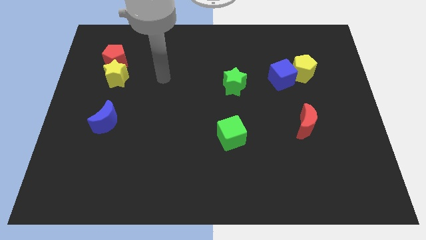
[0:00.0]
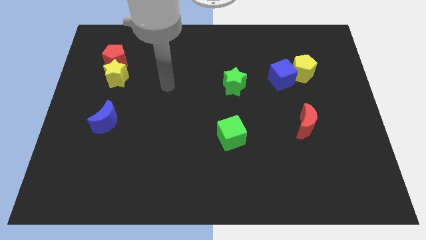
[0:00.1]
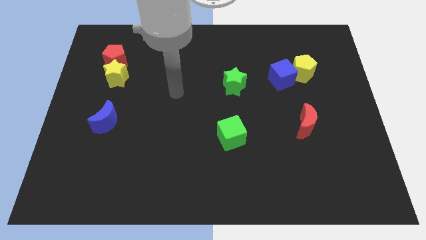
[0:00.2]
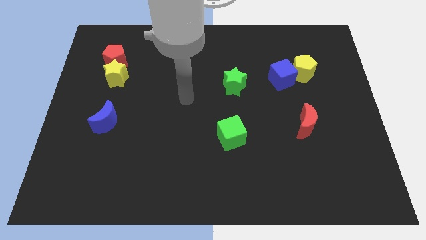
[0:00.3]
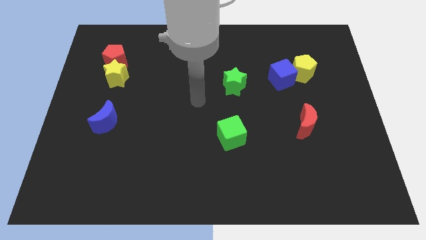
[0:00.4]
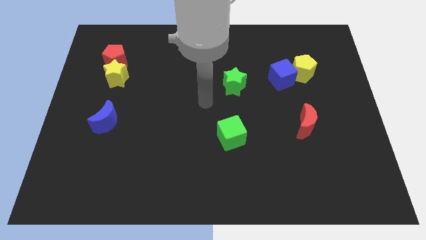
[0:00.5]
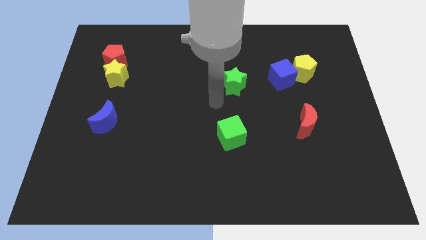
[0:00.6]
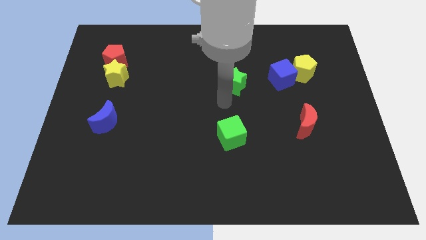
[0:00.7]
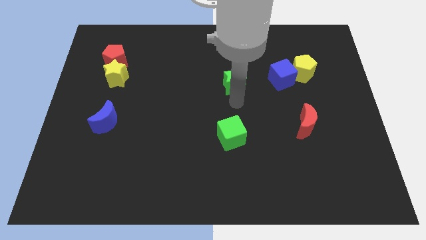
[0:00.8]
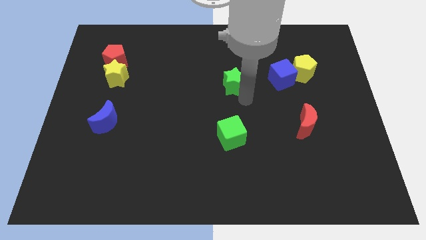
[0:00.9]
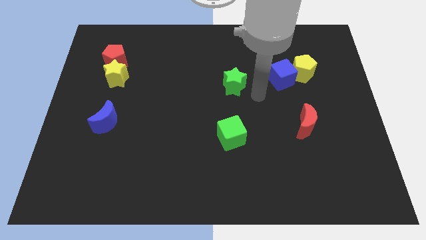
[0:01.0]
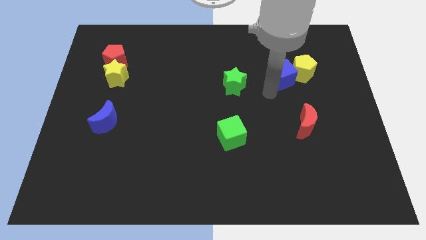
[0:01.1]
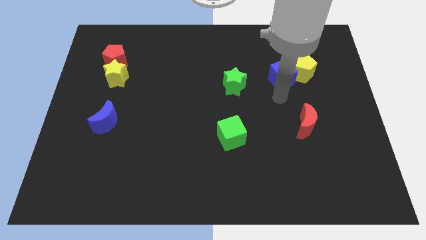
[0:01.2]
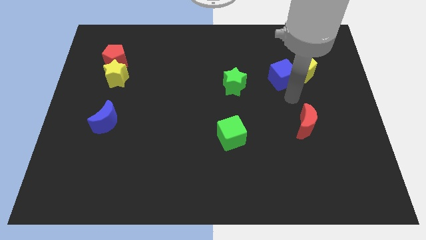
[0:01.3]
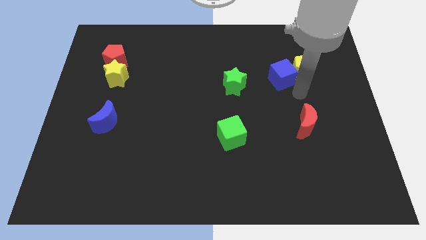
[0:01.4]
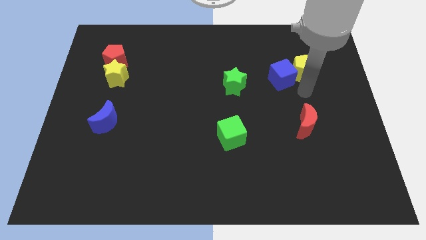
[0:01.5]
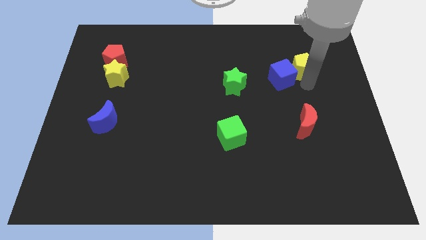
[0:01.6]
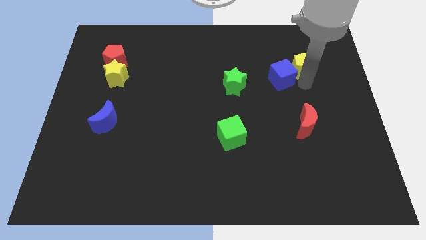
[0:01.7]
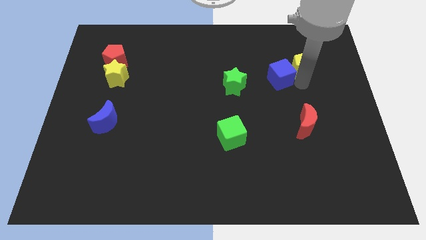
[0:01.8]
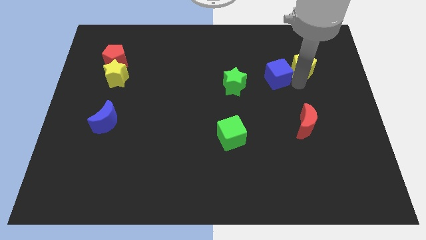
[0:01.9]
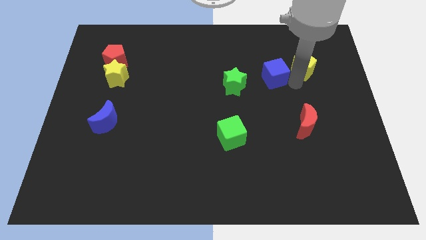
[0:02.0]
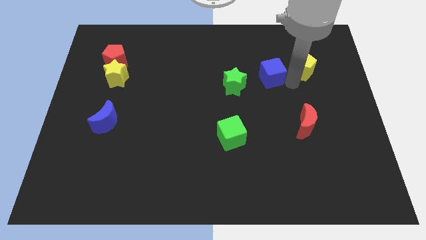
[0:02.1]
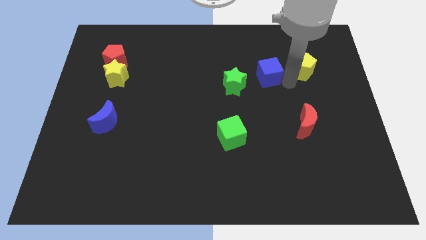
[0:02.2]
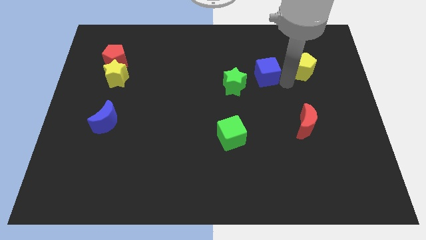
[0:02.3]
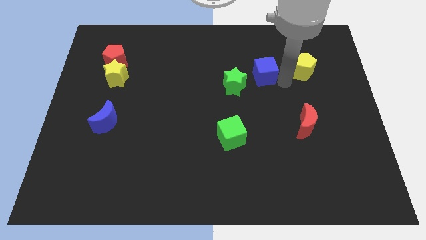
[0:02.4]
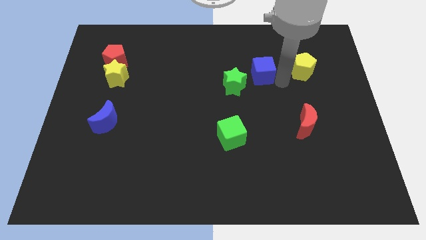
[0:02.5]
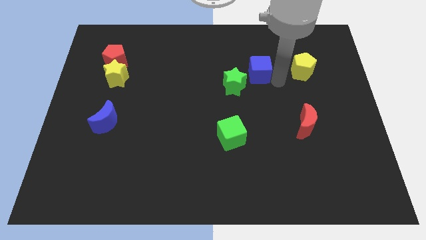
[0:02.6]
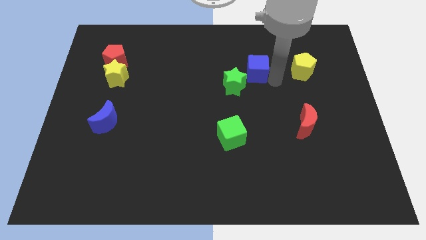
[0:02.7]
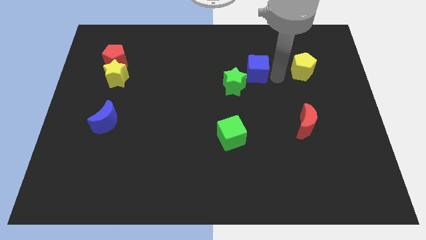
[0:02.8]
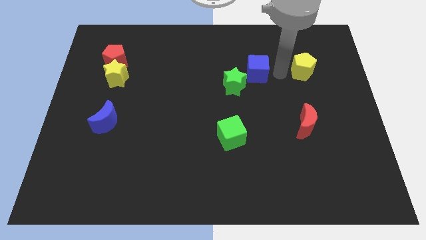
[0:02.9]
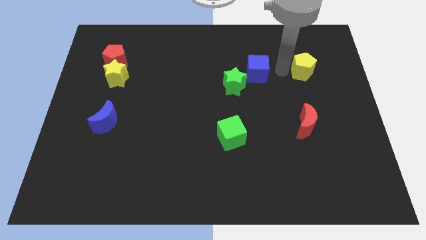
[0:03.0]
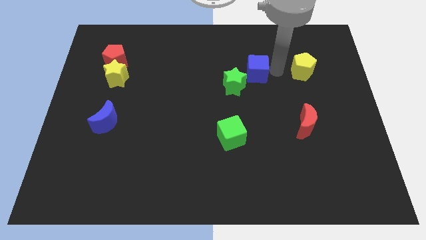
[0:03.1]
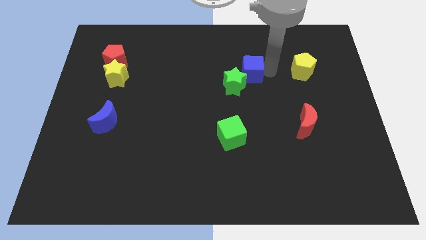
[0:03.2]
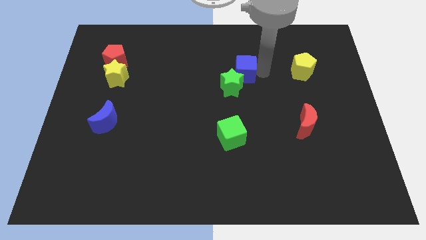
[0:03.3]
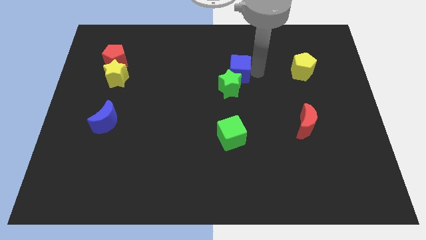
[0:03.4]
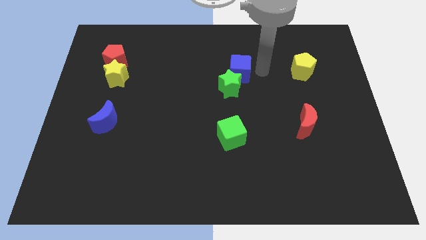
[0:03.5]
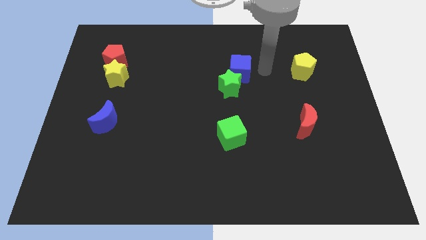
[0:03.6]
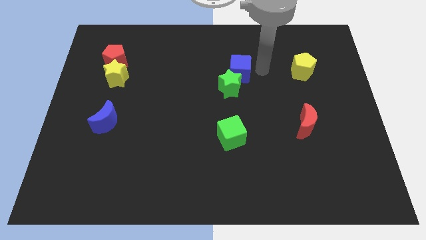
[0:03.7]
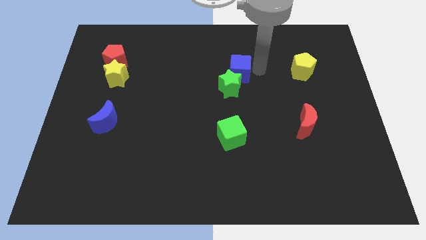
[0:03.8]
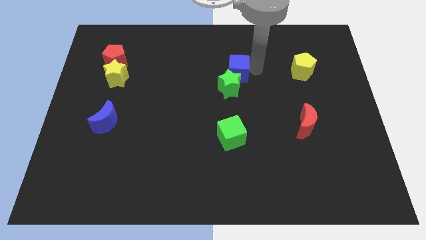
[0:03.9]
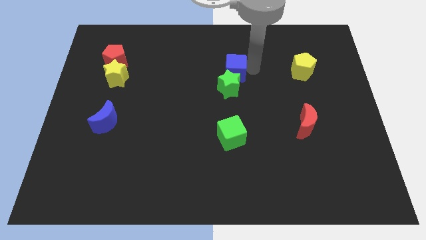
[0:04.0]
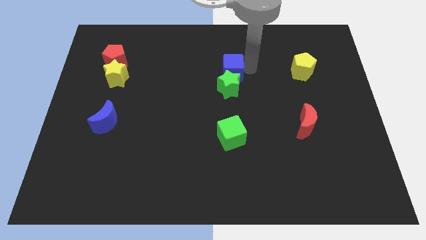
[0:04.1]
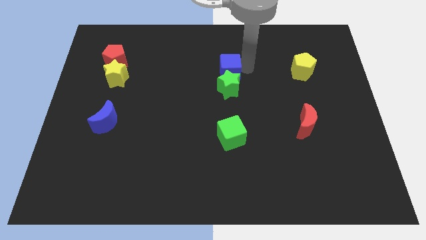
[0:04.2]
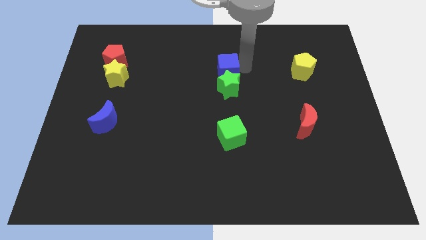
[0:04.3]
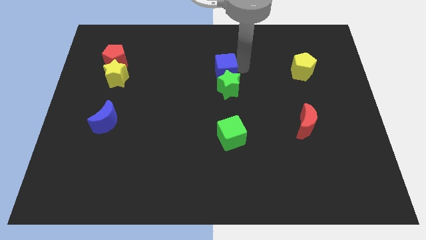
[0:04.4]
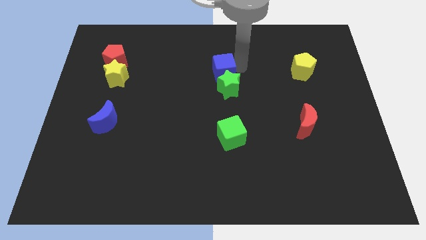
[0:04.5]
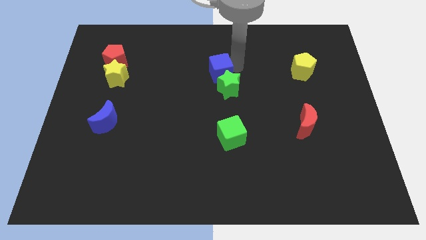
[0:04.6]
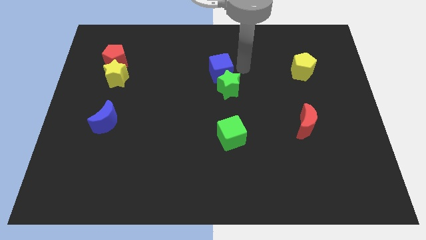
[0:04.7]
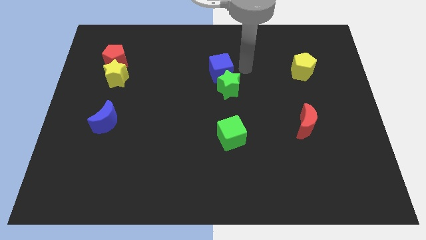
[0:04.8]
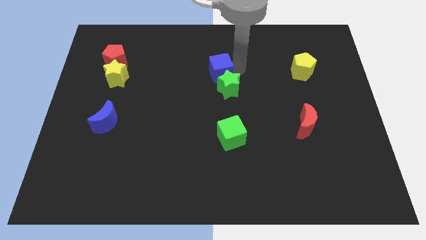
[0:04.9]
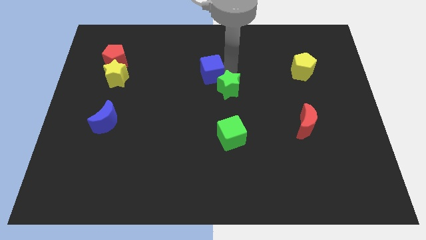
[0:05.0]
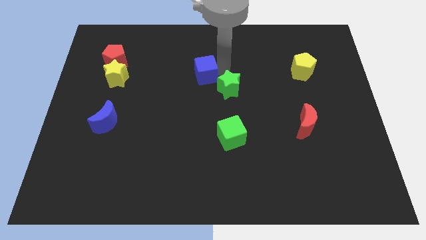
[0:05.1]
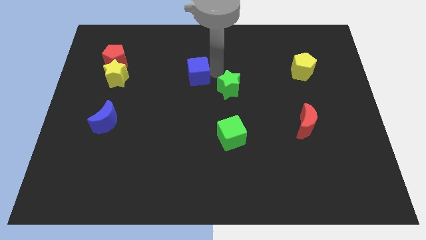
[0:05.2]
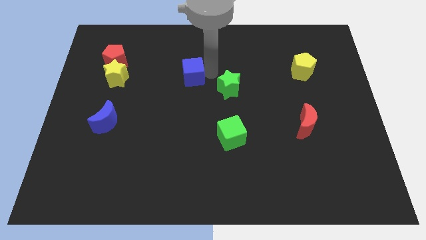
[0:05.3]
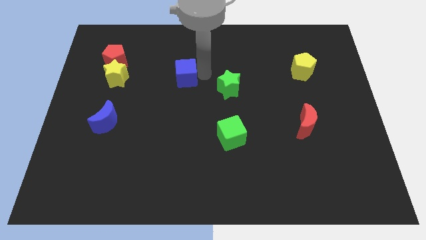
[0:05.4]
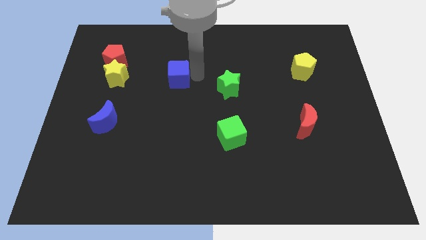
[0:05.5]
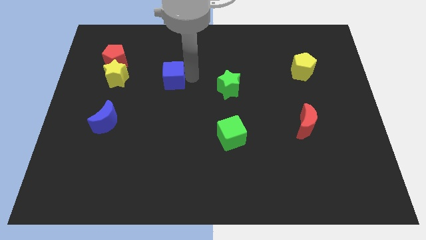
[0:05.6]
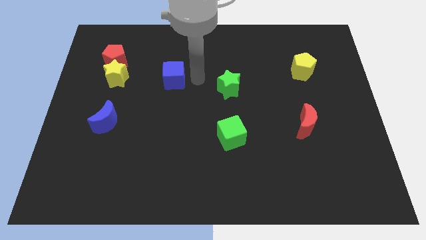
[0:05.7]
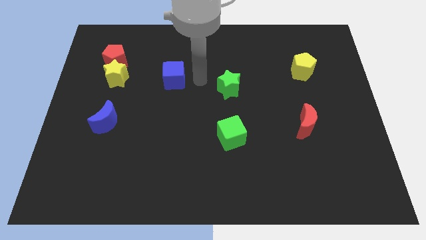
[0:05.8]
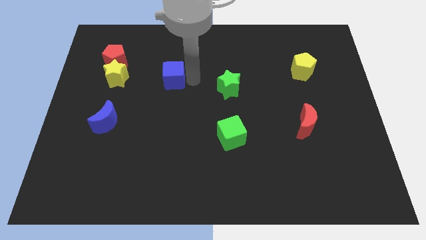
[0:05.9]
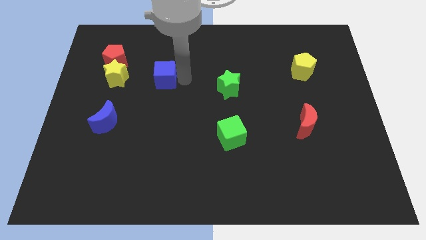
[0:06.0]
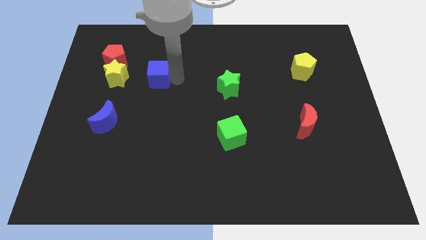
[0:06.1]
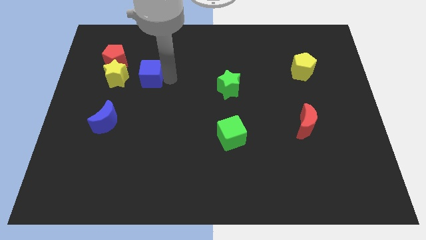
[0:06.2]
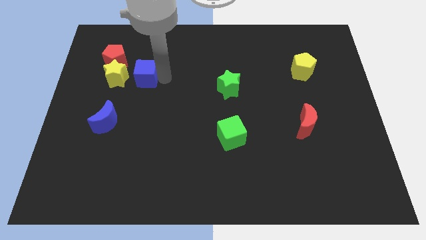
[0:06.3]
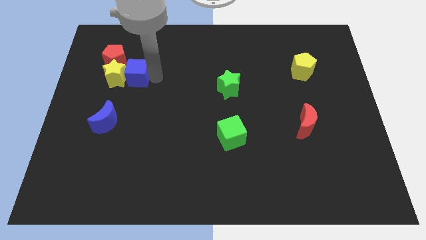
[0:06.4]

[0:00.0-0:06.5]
push the blue cube to the yellow star

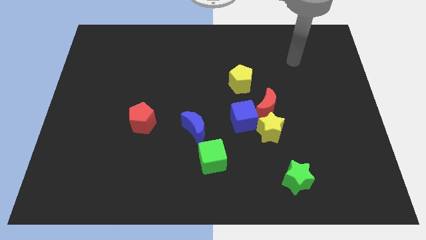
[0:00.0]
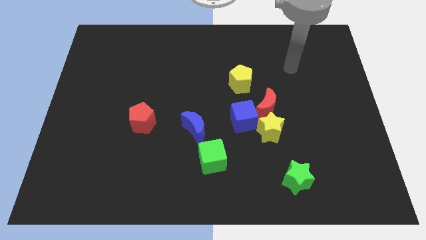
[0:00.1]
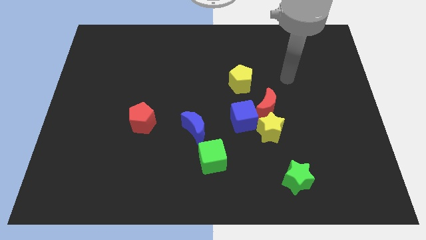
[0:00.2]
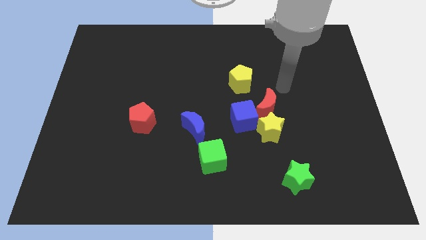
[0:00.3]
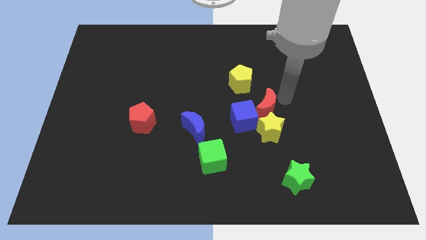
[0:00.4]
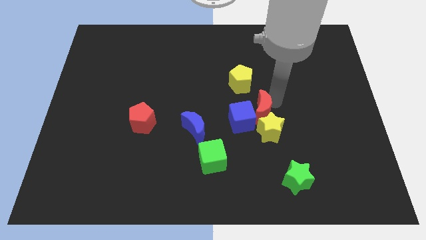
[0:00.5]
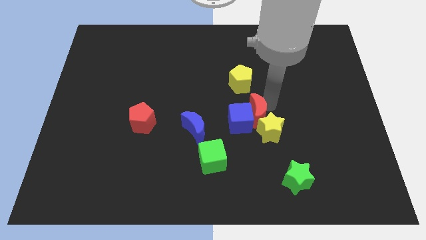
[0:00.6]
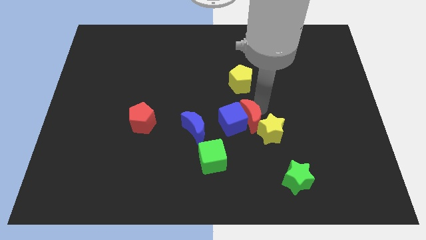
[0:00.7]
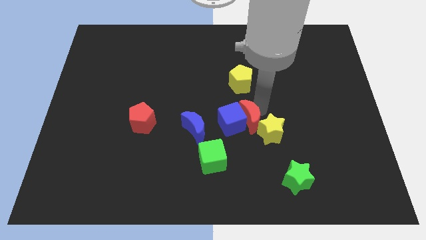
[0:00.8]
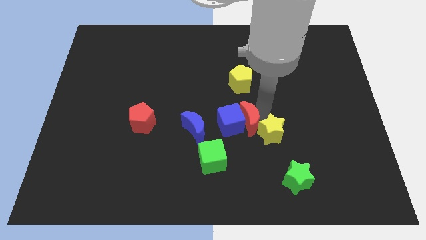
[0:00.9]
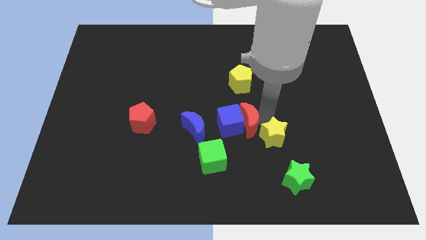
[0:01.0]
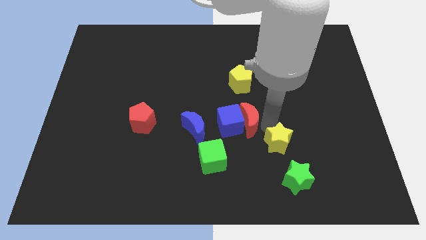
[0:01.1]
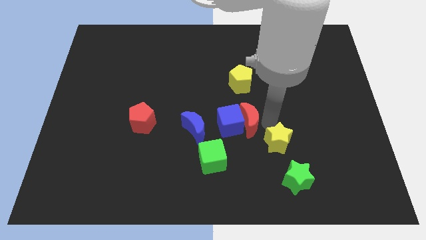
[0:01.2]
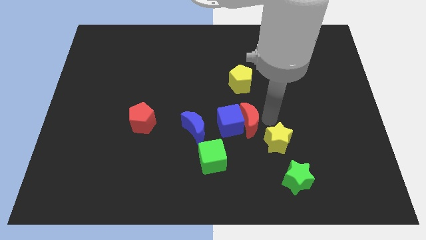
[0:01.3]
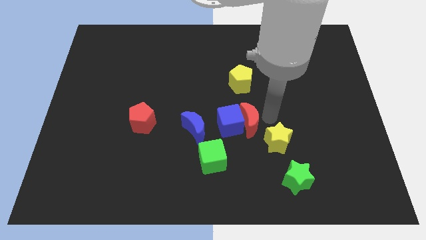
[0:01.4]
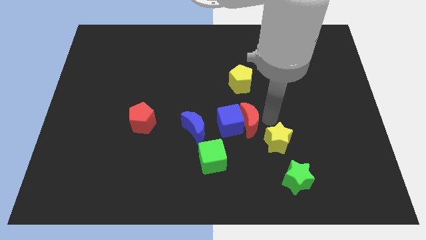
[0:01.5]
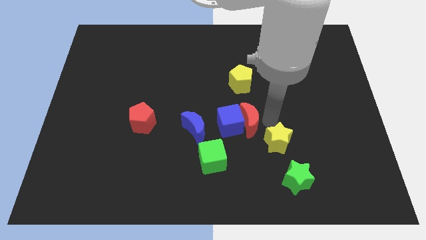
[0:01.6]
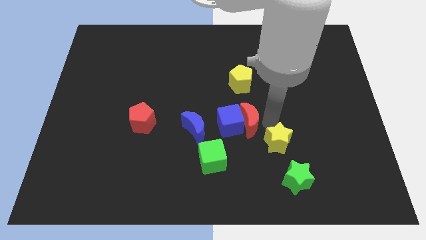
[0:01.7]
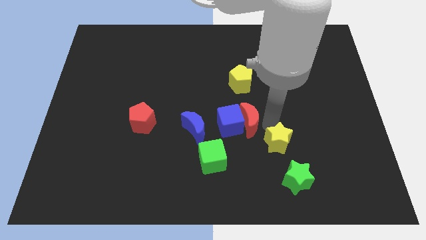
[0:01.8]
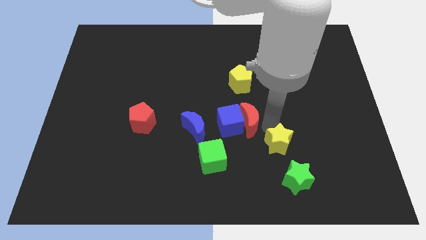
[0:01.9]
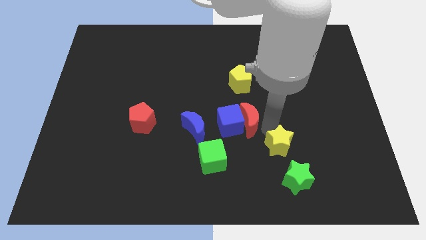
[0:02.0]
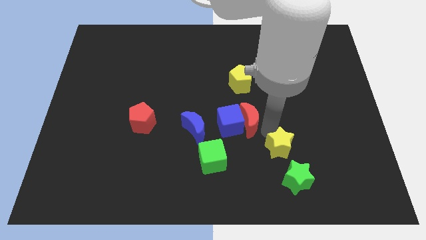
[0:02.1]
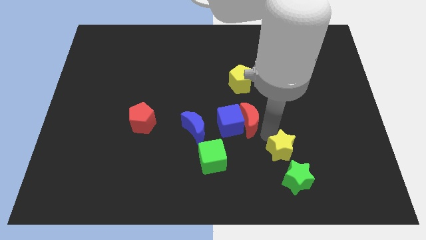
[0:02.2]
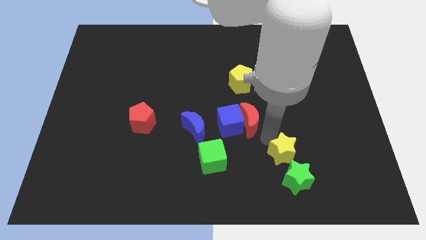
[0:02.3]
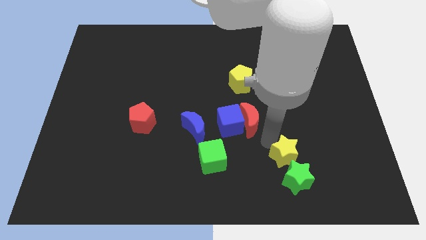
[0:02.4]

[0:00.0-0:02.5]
slide the yellow star close to the green star
